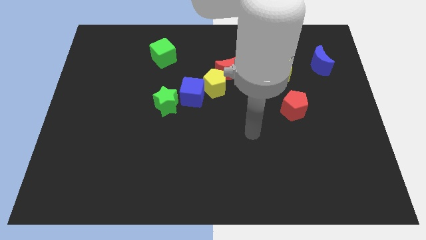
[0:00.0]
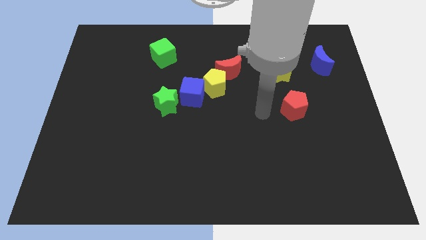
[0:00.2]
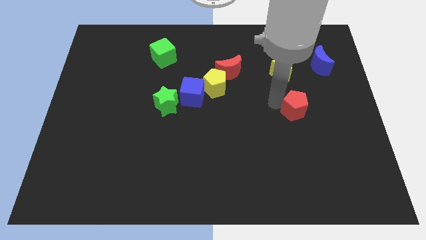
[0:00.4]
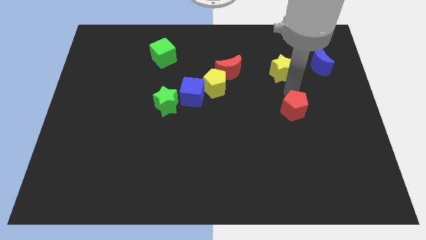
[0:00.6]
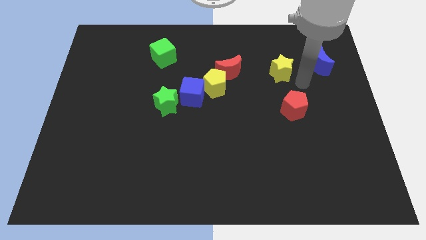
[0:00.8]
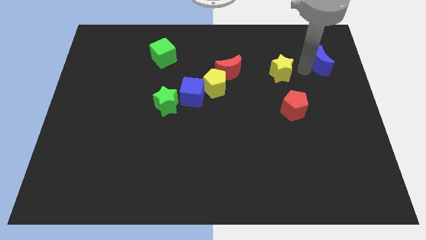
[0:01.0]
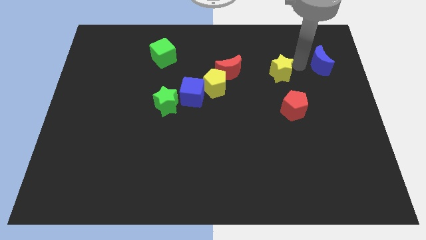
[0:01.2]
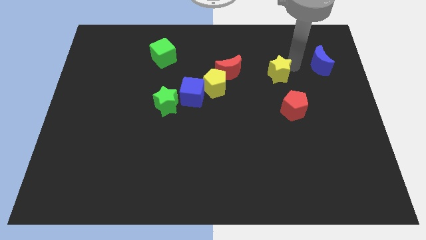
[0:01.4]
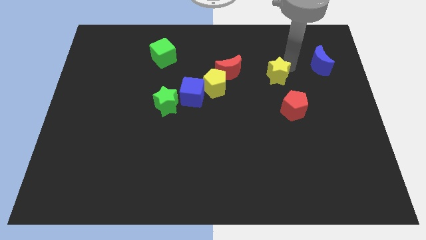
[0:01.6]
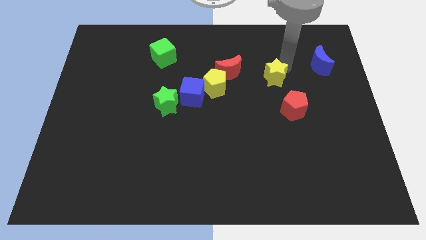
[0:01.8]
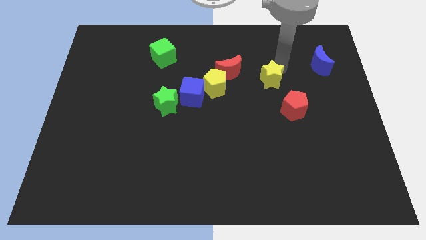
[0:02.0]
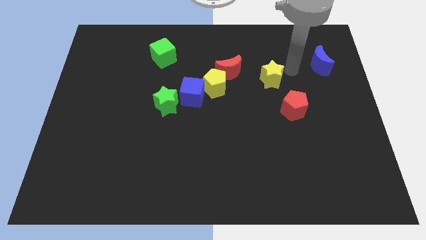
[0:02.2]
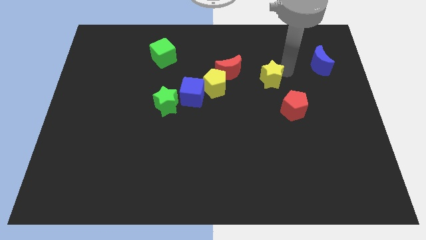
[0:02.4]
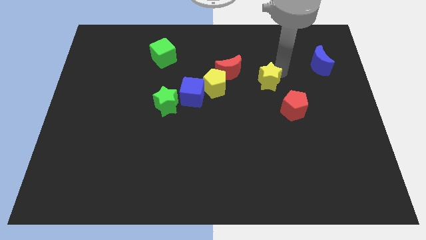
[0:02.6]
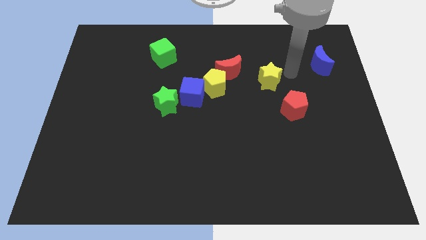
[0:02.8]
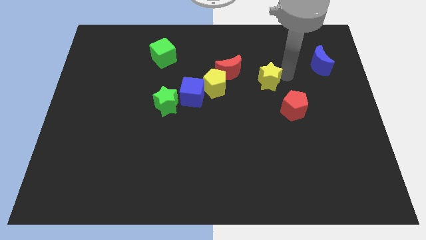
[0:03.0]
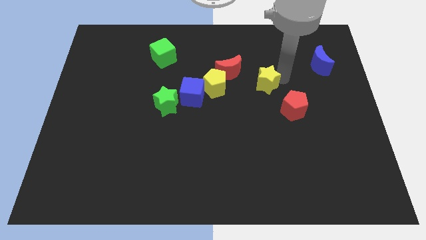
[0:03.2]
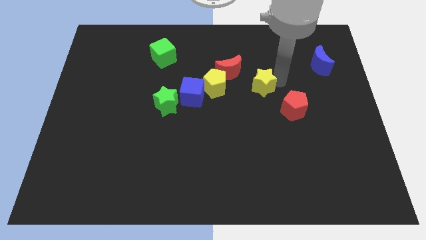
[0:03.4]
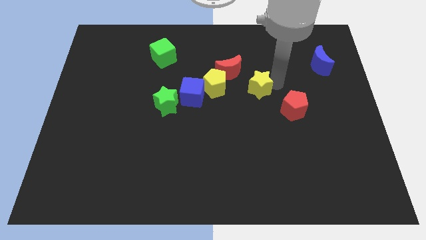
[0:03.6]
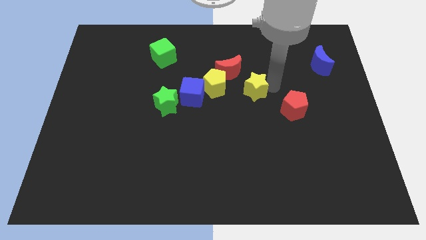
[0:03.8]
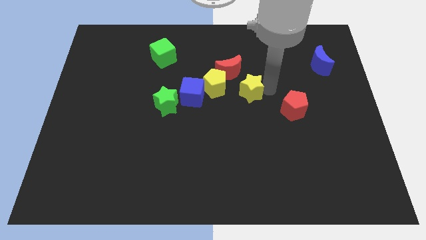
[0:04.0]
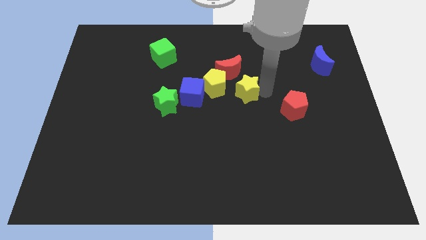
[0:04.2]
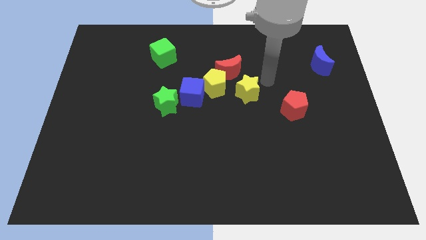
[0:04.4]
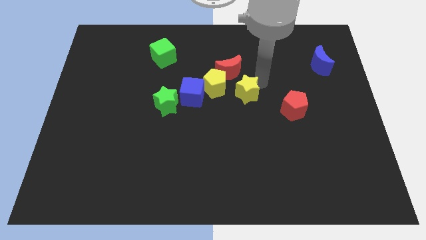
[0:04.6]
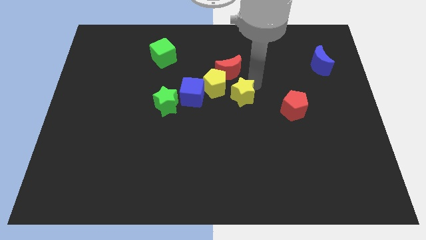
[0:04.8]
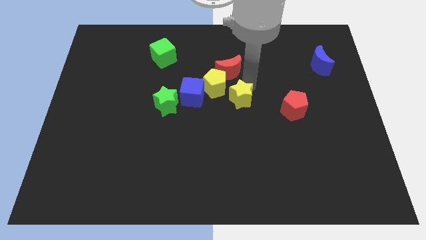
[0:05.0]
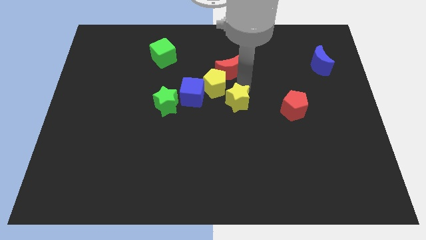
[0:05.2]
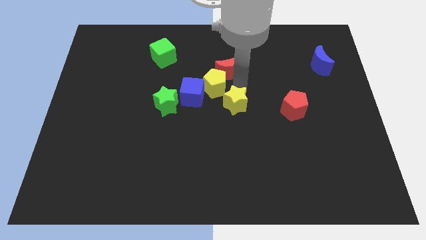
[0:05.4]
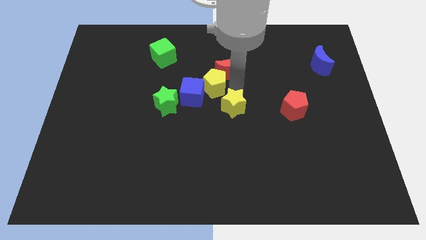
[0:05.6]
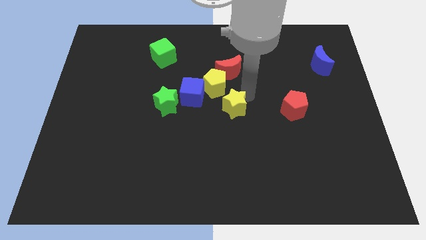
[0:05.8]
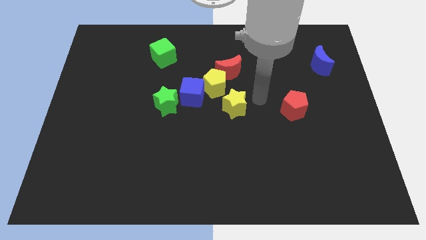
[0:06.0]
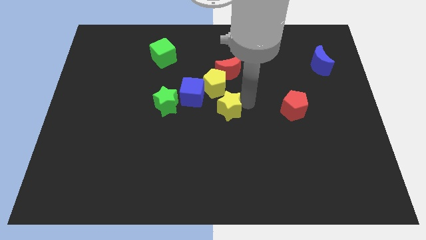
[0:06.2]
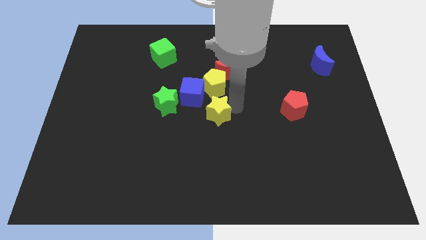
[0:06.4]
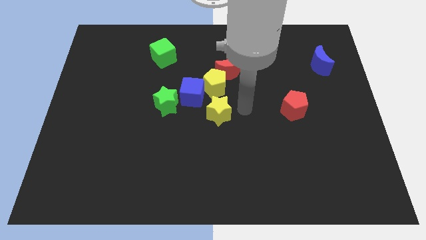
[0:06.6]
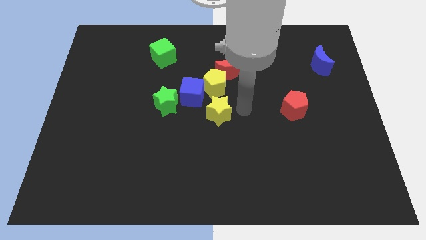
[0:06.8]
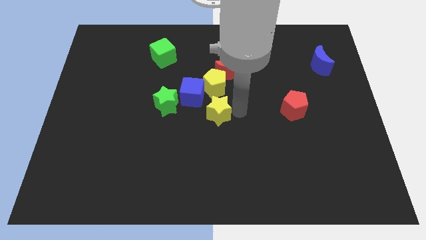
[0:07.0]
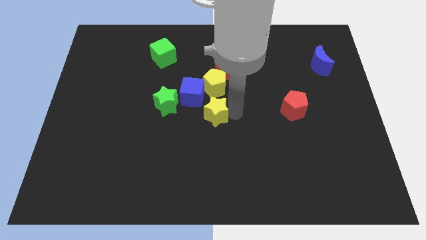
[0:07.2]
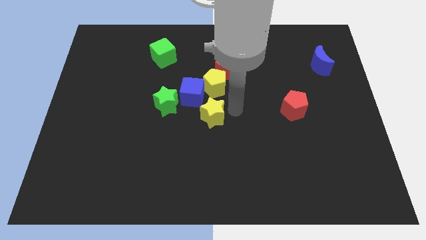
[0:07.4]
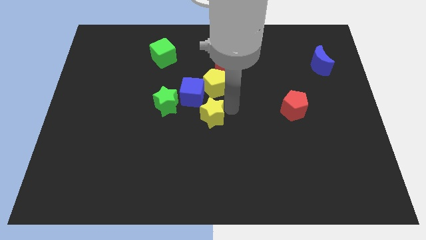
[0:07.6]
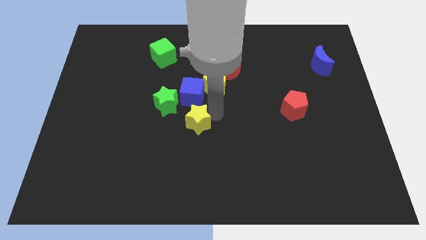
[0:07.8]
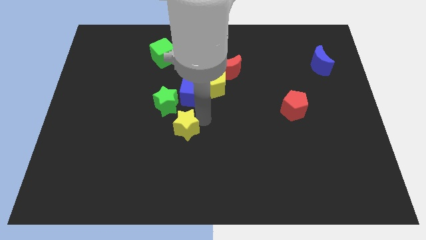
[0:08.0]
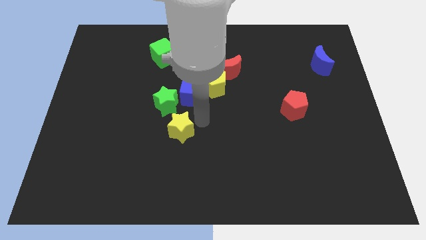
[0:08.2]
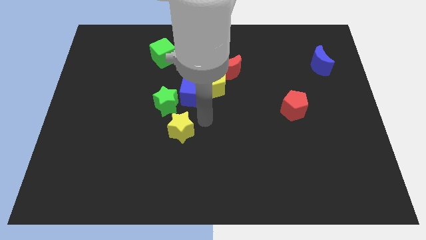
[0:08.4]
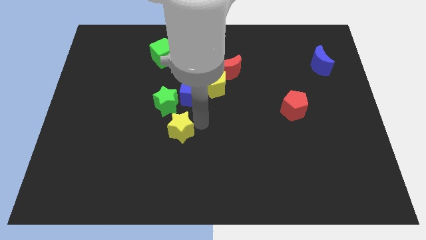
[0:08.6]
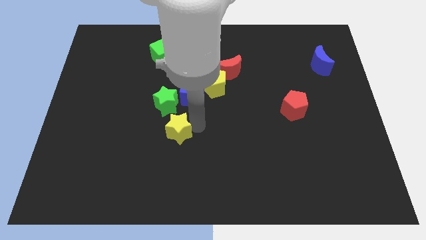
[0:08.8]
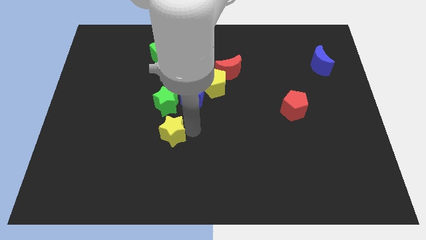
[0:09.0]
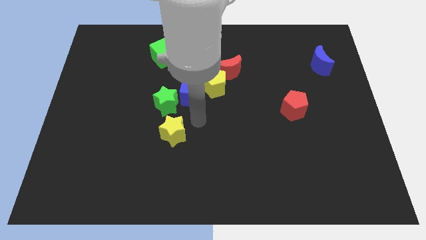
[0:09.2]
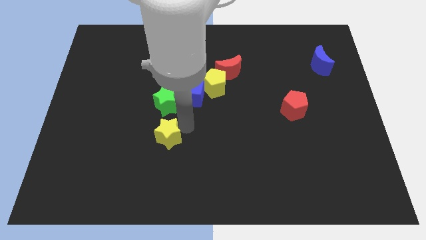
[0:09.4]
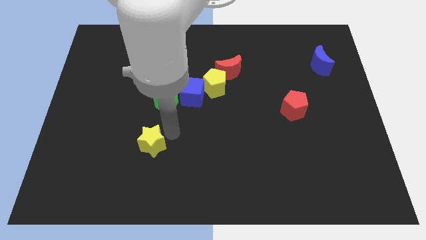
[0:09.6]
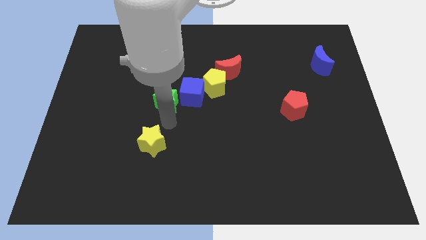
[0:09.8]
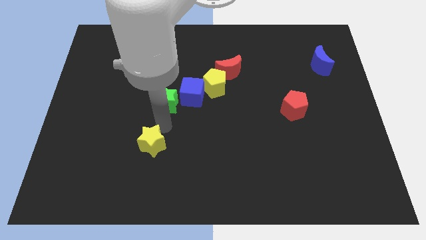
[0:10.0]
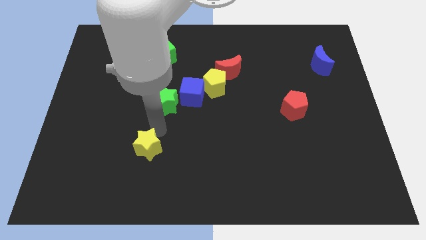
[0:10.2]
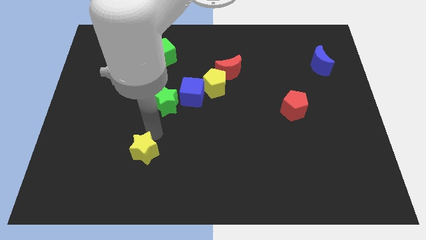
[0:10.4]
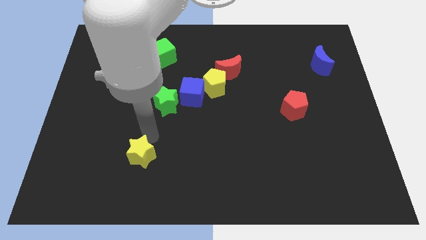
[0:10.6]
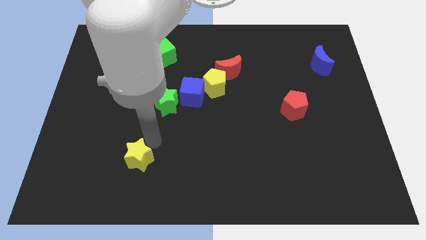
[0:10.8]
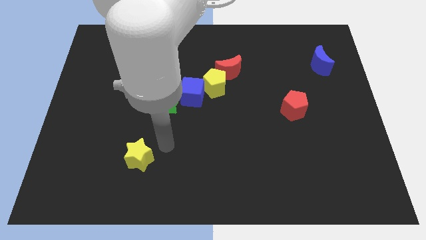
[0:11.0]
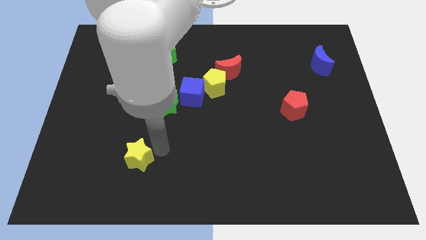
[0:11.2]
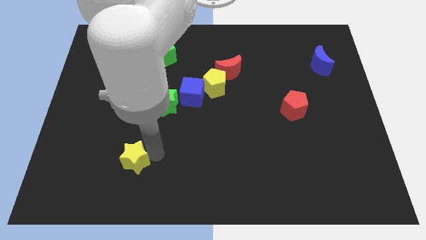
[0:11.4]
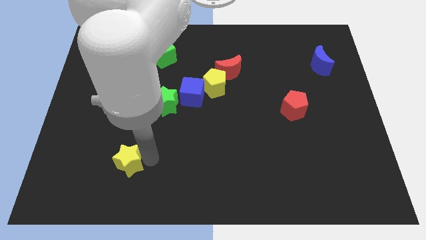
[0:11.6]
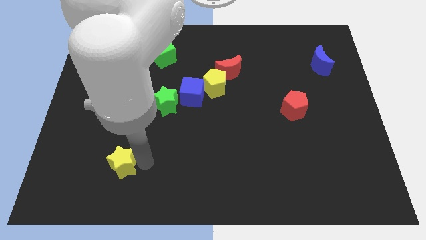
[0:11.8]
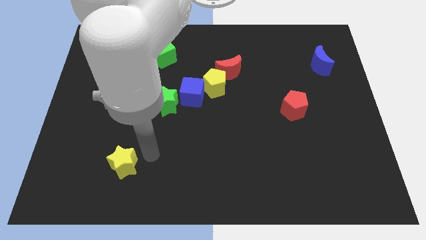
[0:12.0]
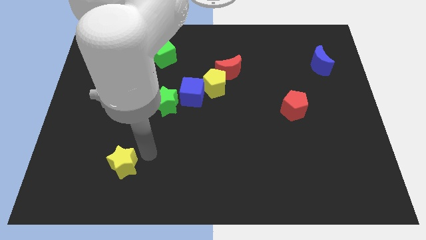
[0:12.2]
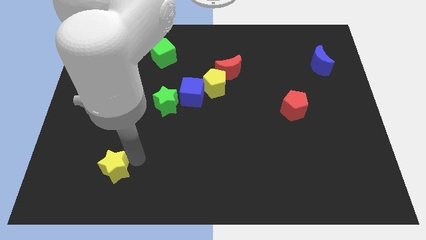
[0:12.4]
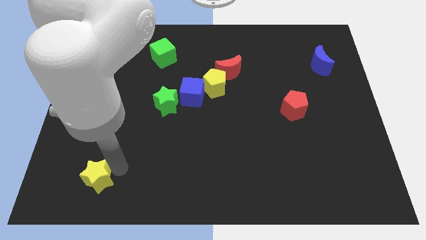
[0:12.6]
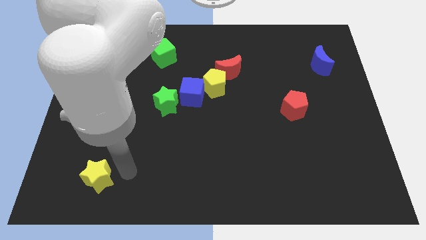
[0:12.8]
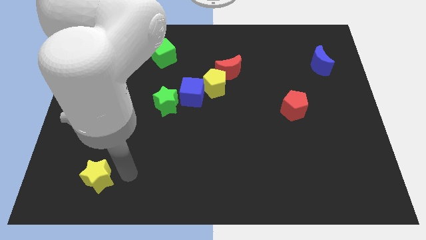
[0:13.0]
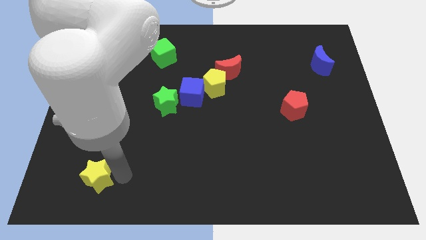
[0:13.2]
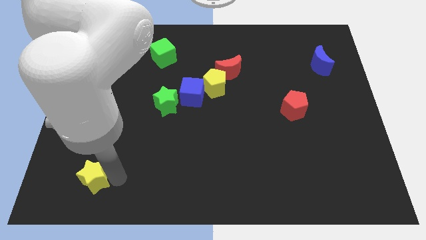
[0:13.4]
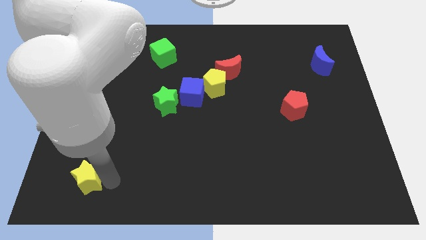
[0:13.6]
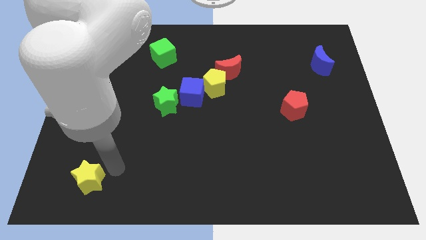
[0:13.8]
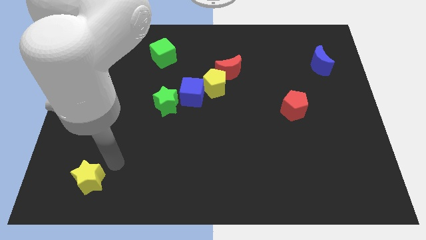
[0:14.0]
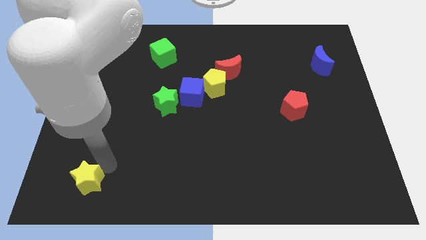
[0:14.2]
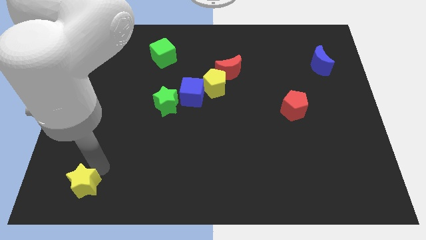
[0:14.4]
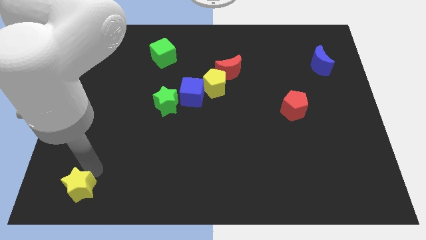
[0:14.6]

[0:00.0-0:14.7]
move the yellow star to the bottom left of the board
